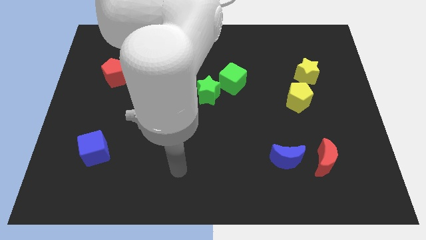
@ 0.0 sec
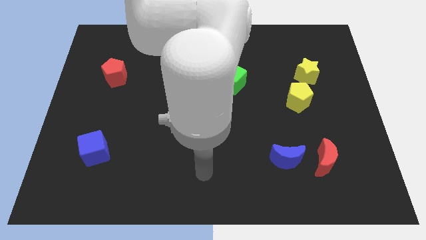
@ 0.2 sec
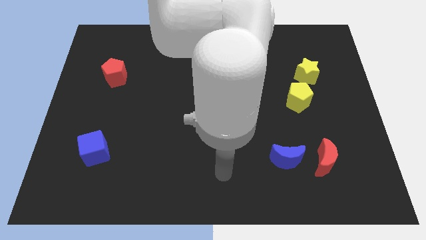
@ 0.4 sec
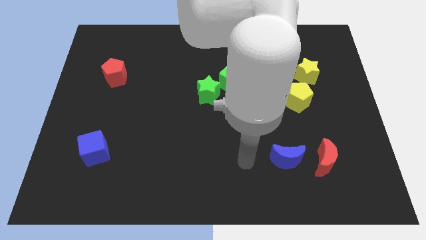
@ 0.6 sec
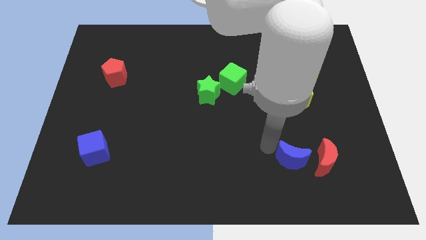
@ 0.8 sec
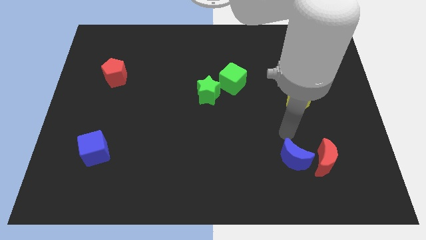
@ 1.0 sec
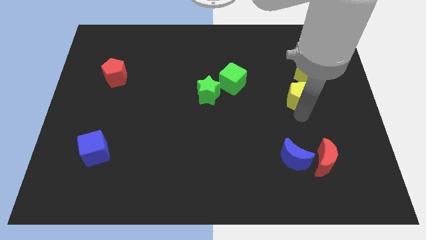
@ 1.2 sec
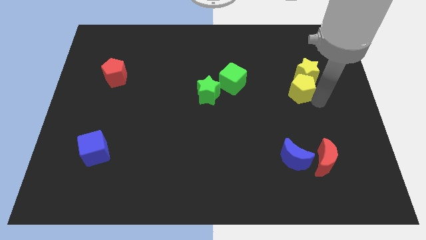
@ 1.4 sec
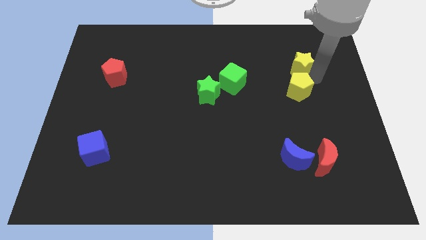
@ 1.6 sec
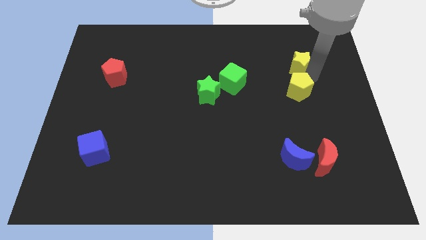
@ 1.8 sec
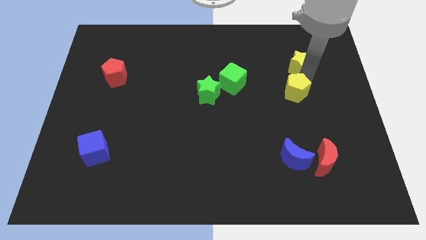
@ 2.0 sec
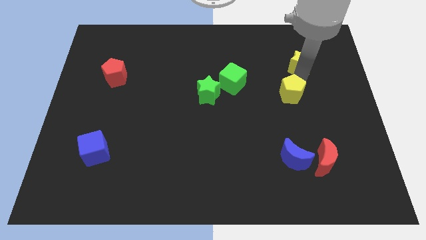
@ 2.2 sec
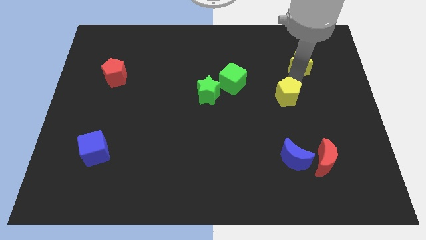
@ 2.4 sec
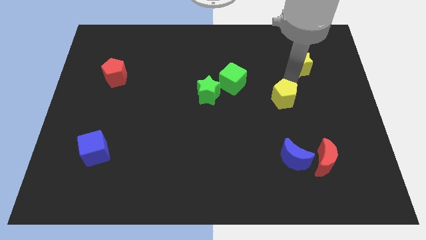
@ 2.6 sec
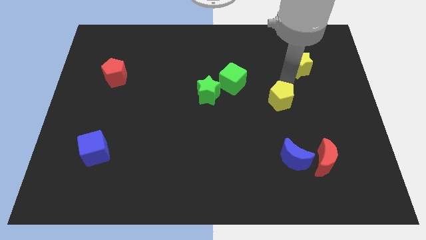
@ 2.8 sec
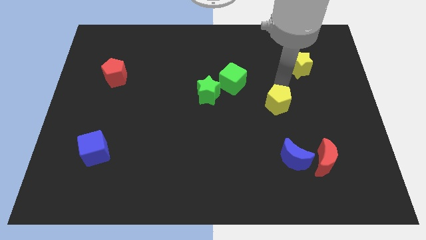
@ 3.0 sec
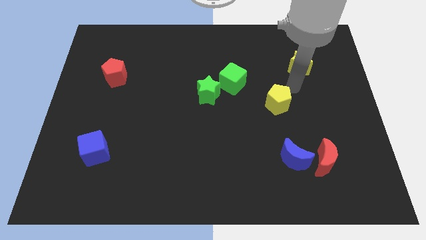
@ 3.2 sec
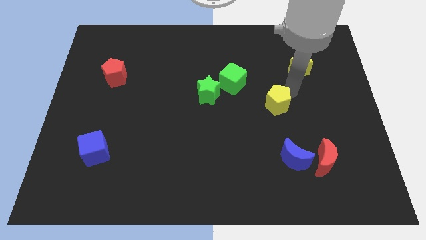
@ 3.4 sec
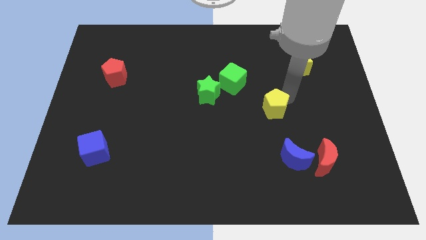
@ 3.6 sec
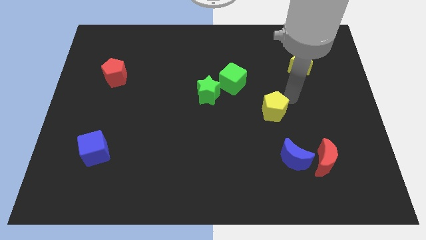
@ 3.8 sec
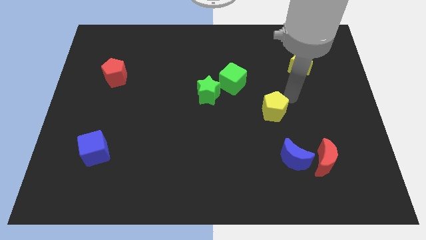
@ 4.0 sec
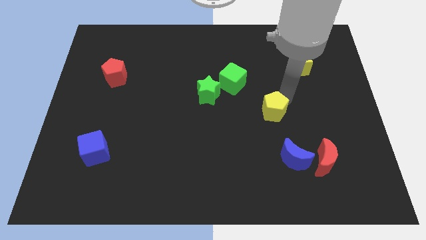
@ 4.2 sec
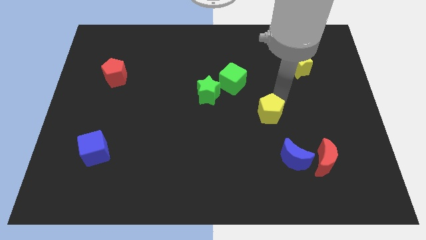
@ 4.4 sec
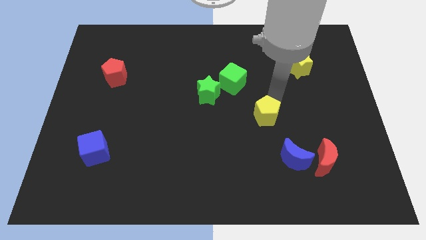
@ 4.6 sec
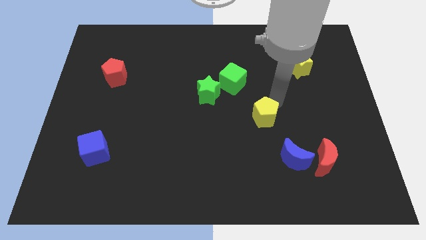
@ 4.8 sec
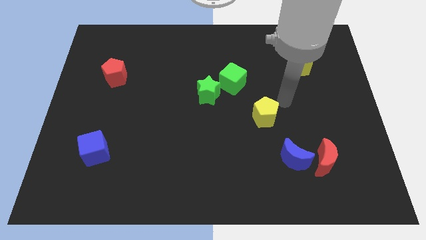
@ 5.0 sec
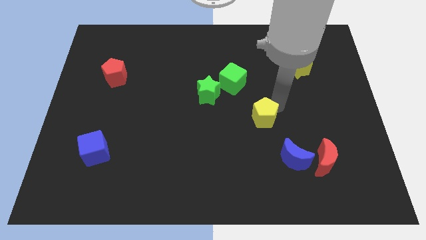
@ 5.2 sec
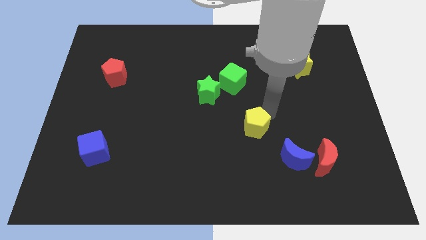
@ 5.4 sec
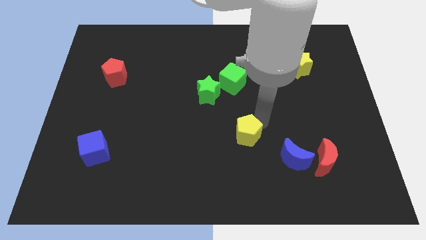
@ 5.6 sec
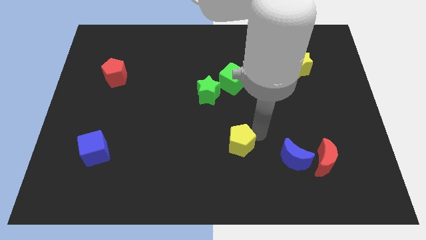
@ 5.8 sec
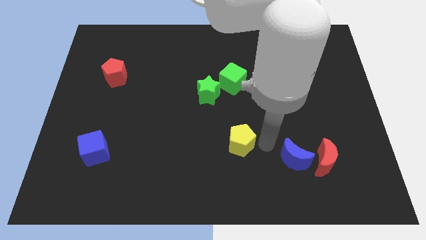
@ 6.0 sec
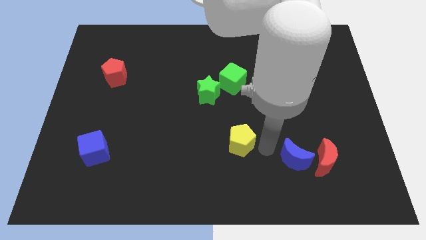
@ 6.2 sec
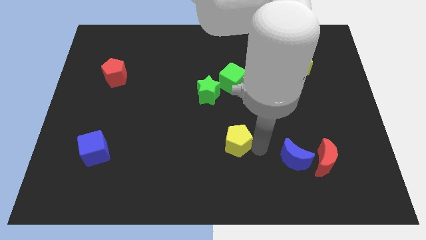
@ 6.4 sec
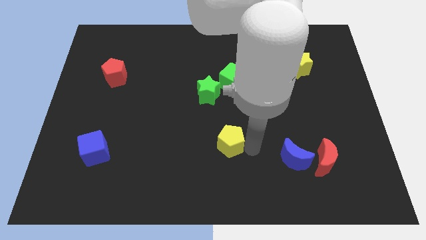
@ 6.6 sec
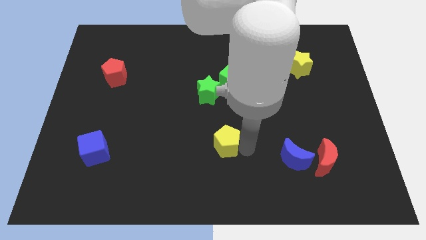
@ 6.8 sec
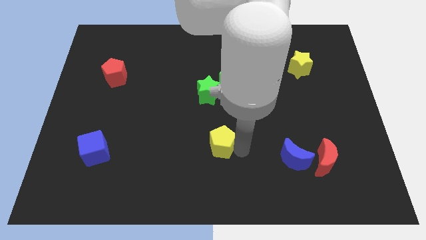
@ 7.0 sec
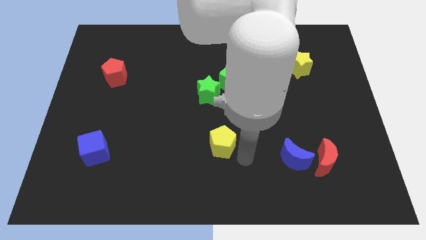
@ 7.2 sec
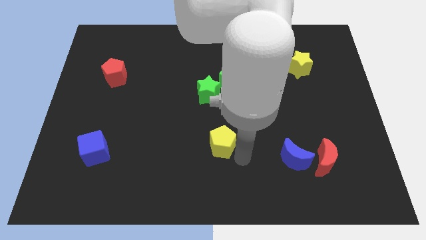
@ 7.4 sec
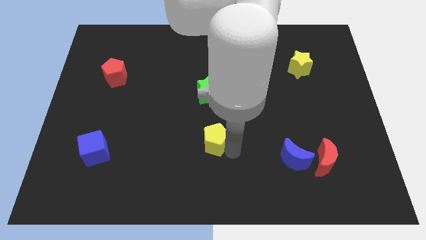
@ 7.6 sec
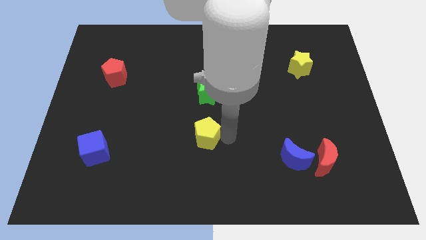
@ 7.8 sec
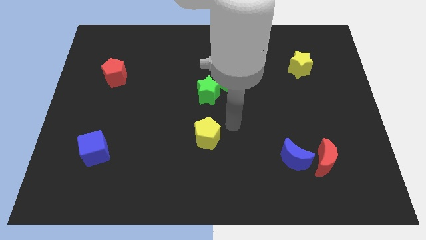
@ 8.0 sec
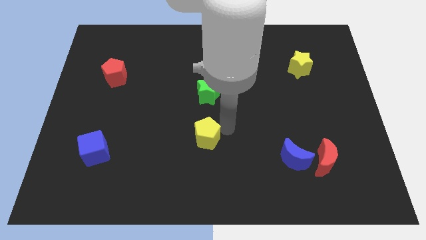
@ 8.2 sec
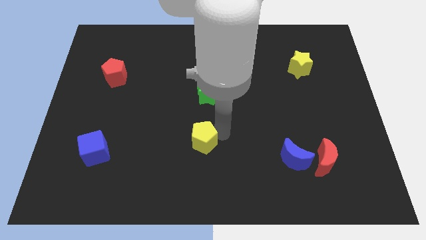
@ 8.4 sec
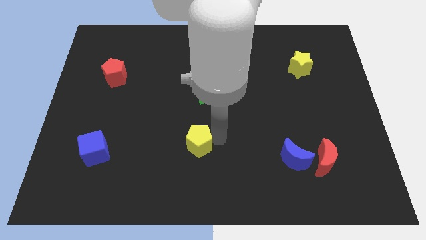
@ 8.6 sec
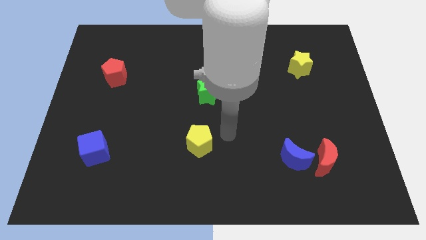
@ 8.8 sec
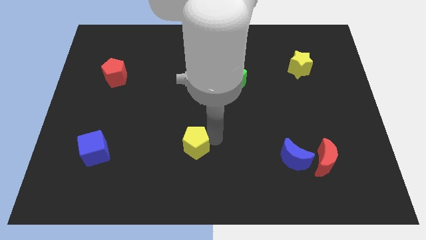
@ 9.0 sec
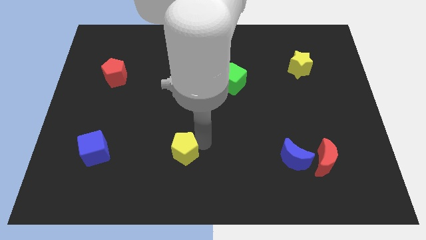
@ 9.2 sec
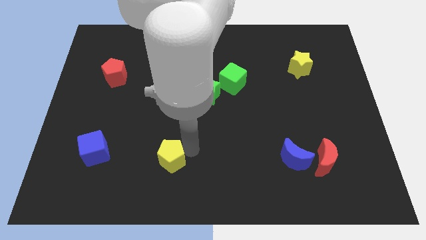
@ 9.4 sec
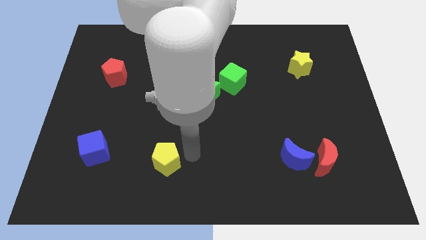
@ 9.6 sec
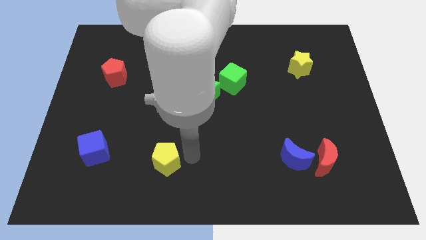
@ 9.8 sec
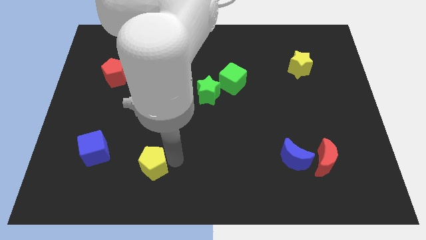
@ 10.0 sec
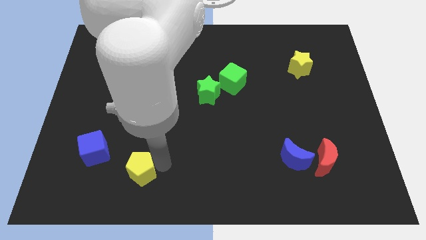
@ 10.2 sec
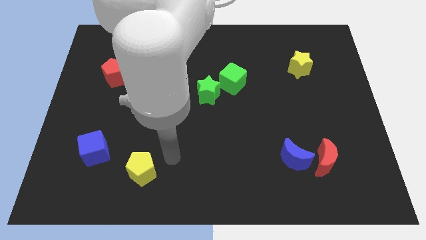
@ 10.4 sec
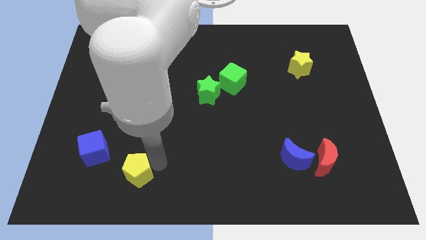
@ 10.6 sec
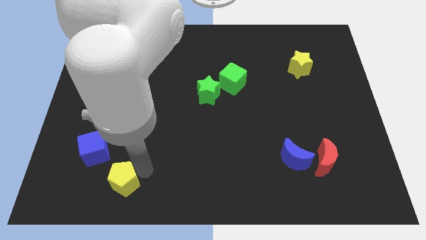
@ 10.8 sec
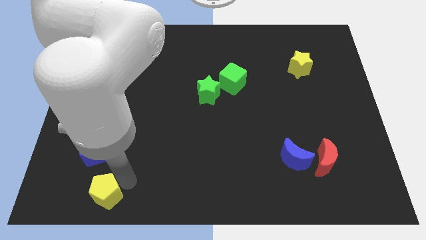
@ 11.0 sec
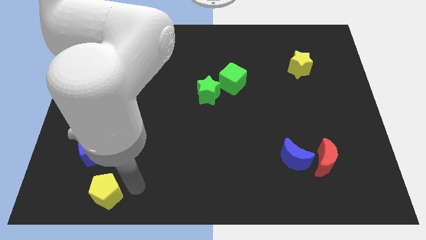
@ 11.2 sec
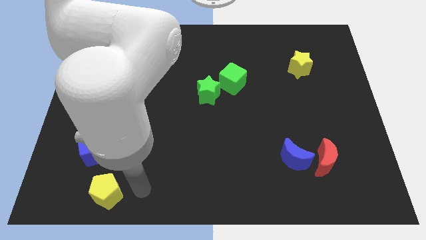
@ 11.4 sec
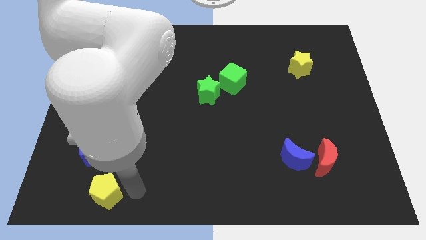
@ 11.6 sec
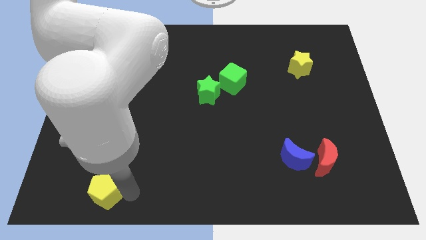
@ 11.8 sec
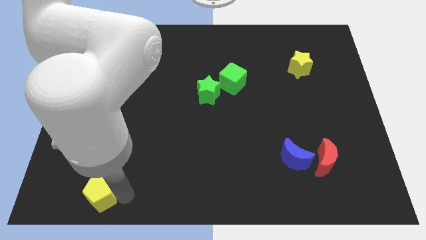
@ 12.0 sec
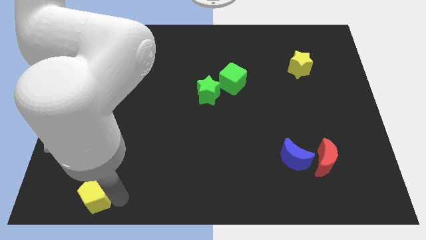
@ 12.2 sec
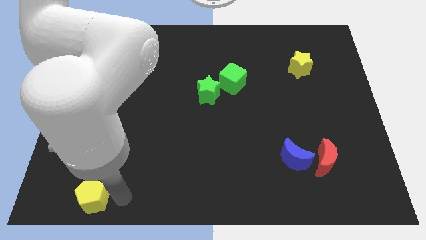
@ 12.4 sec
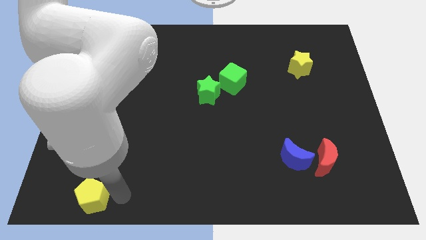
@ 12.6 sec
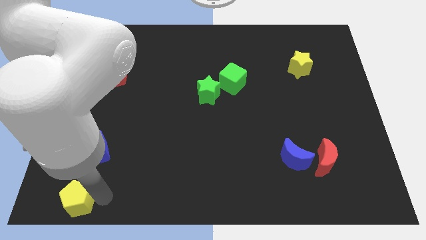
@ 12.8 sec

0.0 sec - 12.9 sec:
put the yellow pentagon to the bottom left of the board

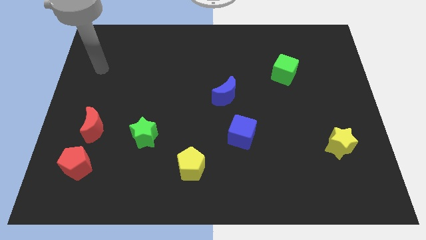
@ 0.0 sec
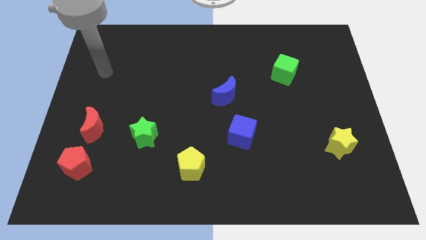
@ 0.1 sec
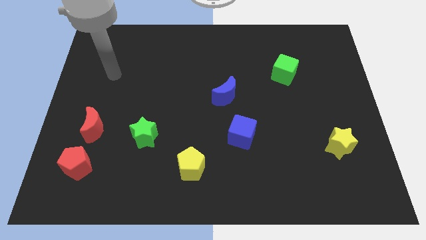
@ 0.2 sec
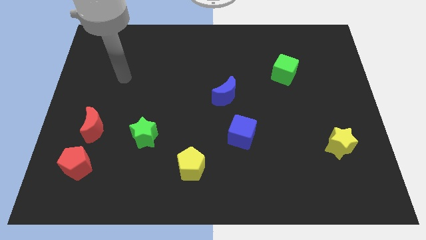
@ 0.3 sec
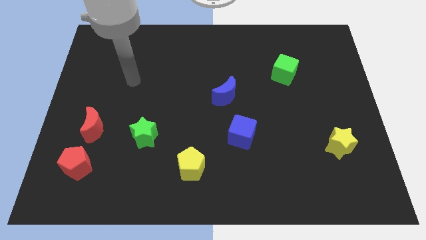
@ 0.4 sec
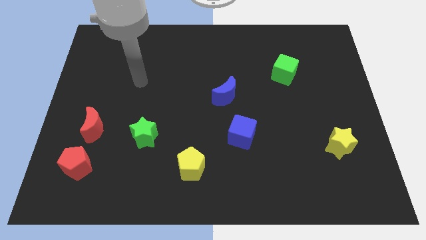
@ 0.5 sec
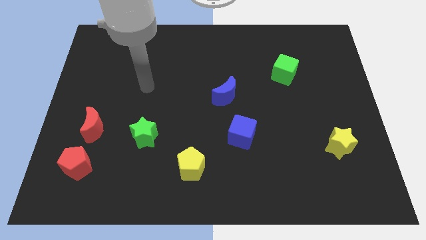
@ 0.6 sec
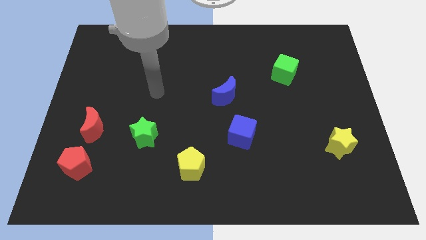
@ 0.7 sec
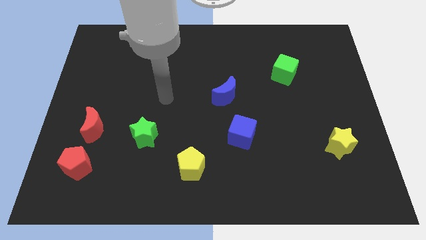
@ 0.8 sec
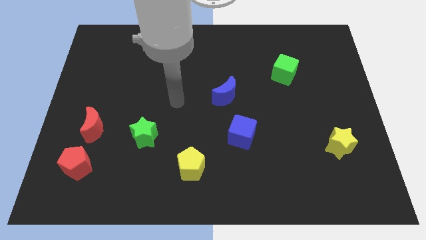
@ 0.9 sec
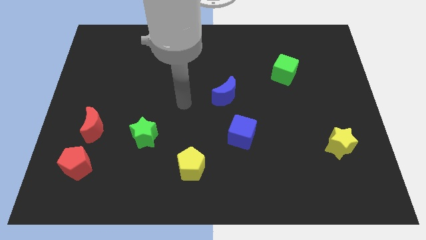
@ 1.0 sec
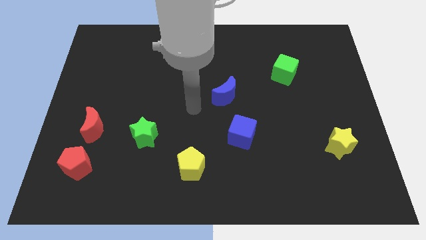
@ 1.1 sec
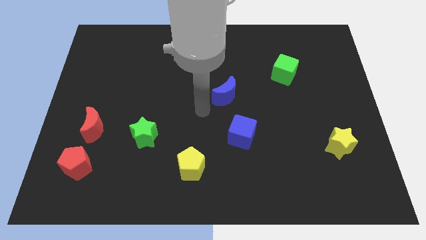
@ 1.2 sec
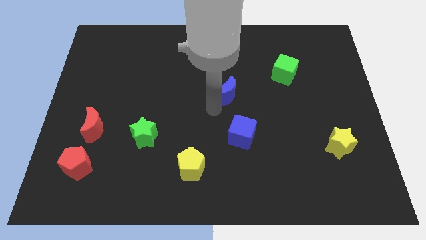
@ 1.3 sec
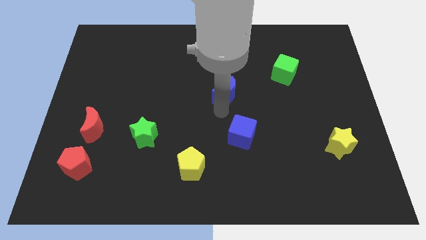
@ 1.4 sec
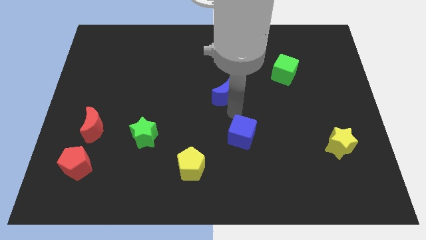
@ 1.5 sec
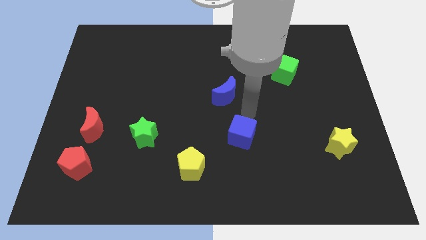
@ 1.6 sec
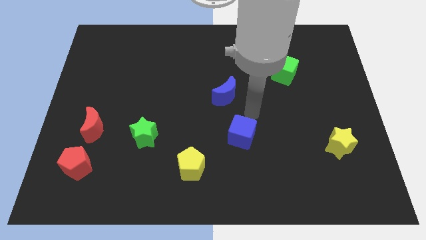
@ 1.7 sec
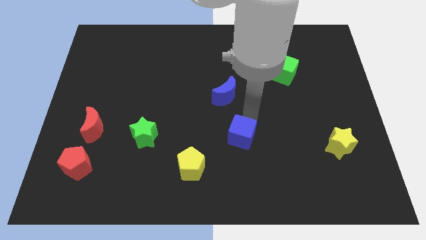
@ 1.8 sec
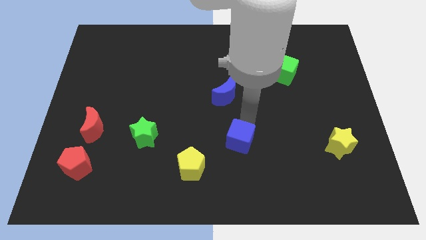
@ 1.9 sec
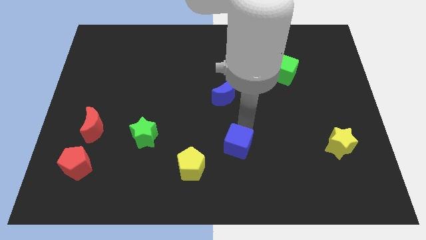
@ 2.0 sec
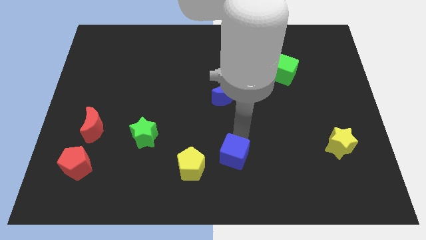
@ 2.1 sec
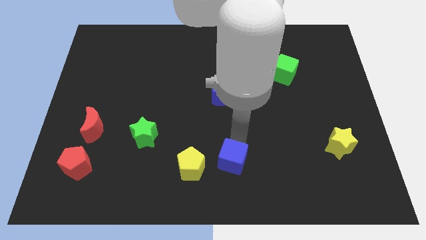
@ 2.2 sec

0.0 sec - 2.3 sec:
push the blue cube to the bottom
